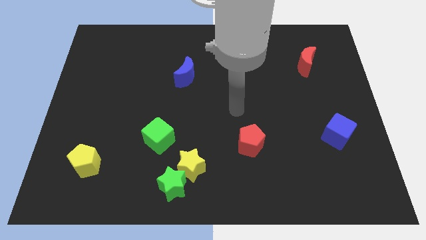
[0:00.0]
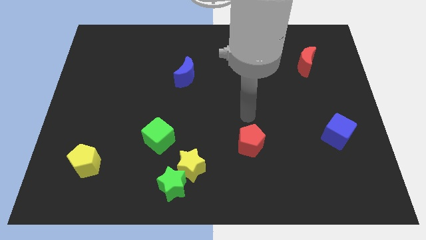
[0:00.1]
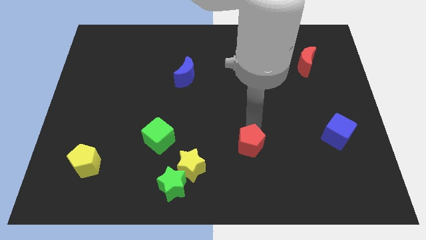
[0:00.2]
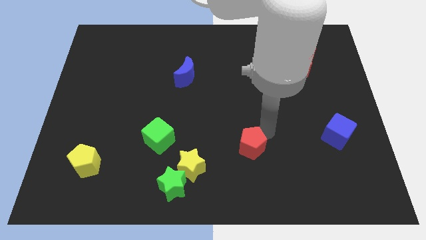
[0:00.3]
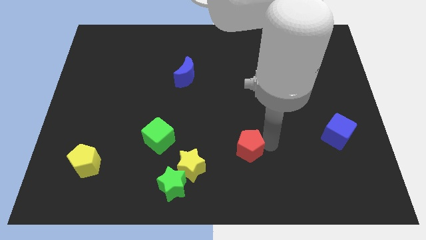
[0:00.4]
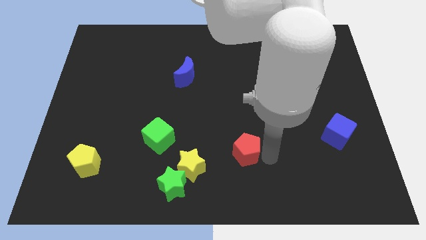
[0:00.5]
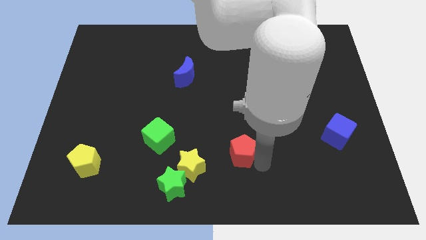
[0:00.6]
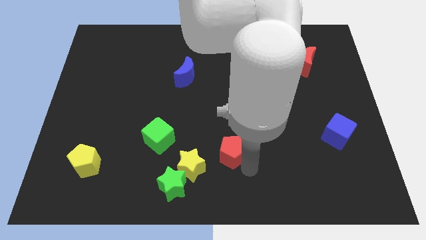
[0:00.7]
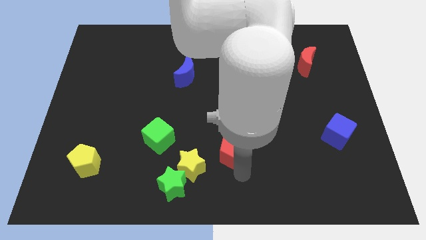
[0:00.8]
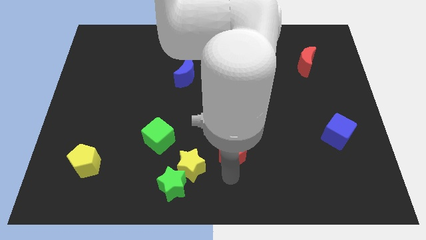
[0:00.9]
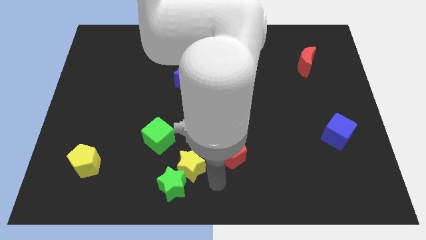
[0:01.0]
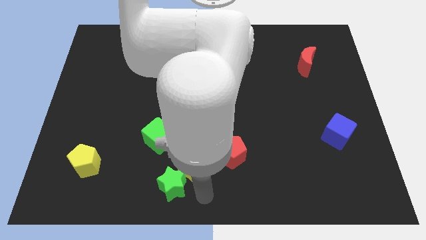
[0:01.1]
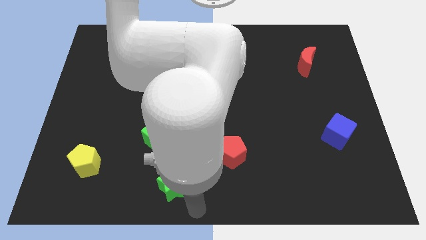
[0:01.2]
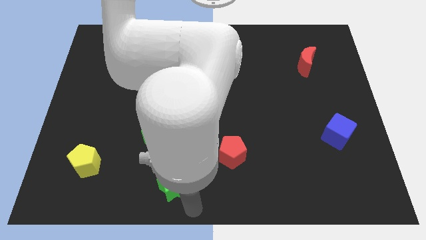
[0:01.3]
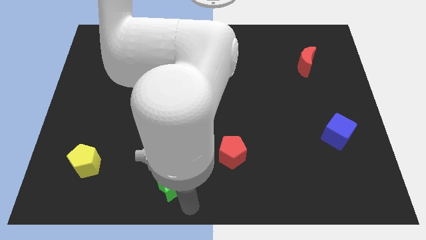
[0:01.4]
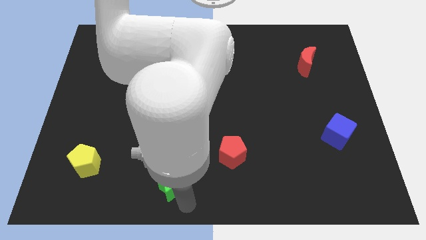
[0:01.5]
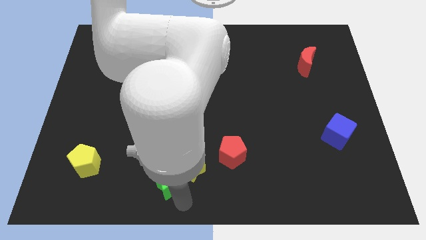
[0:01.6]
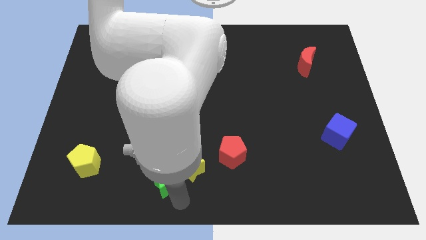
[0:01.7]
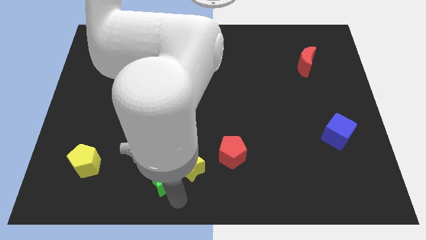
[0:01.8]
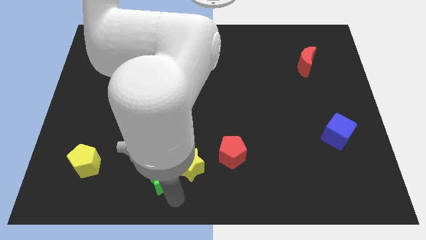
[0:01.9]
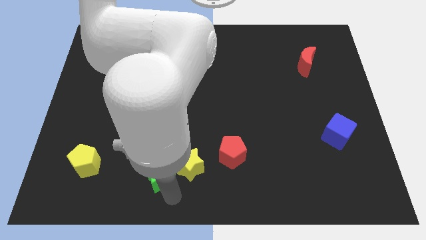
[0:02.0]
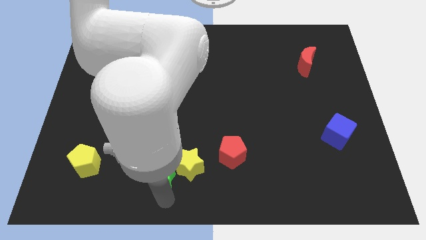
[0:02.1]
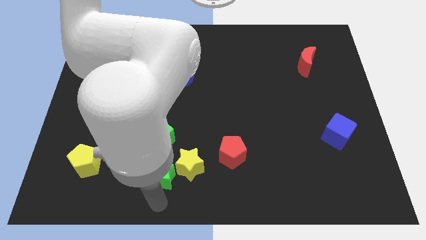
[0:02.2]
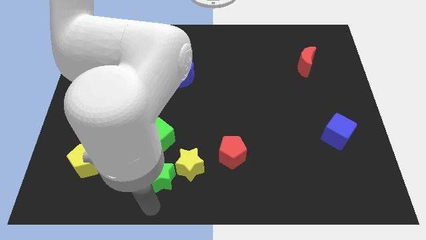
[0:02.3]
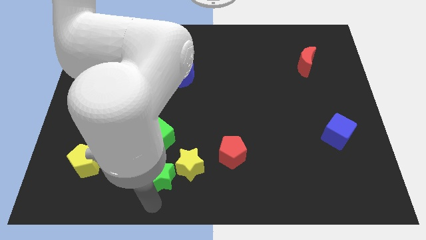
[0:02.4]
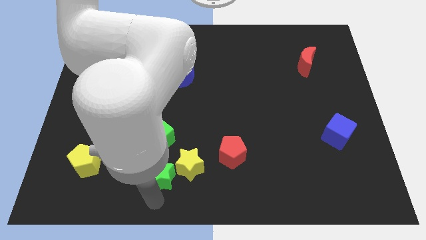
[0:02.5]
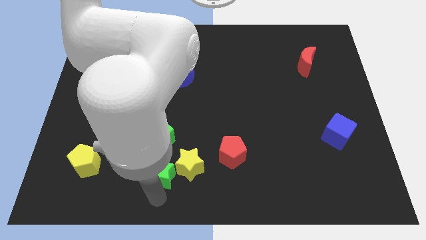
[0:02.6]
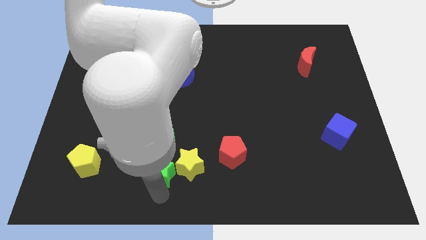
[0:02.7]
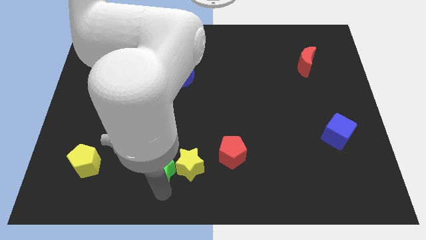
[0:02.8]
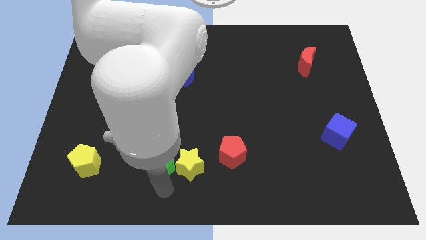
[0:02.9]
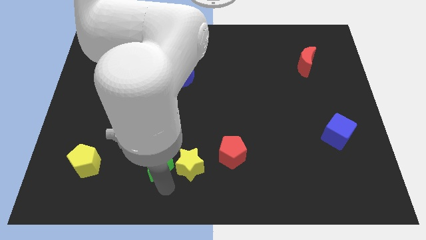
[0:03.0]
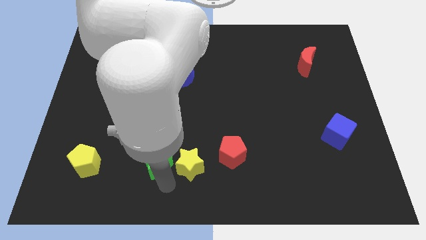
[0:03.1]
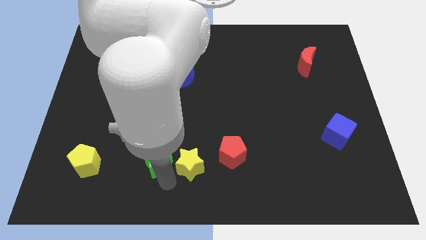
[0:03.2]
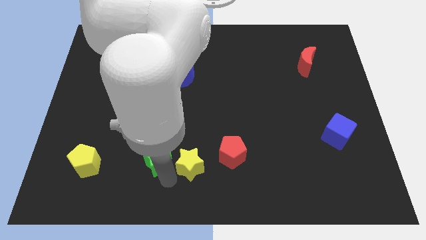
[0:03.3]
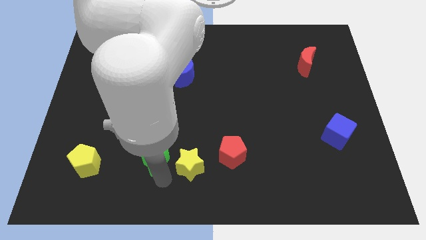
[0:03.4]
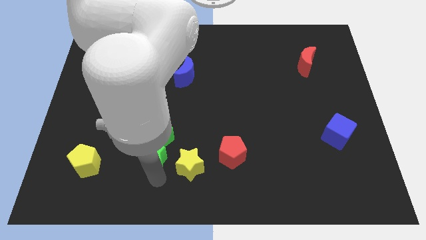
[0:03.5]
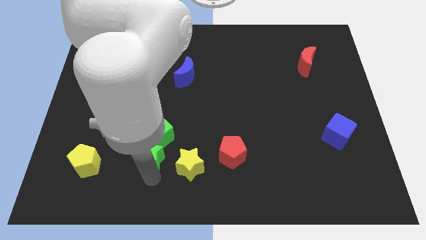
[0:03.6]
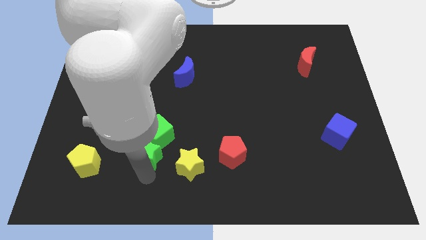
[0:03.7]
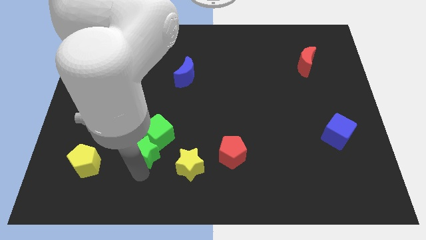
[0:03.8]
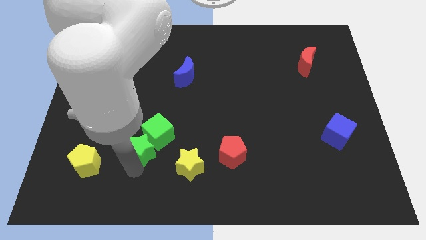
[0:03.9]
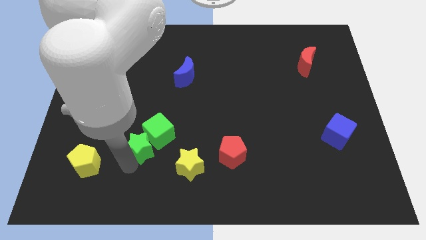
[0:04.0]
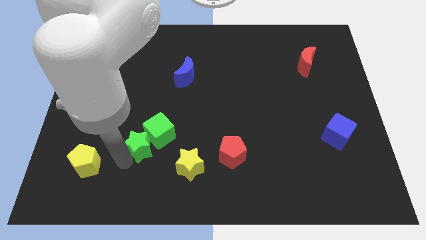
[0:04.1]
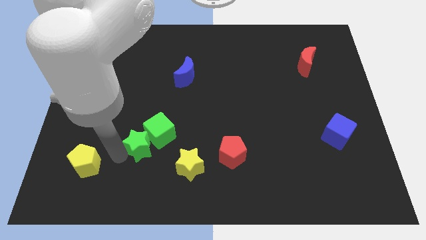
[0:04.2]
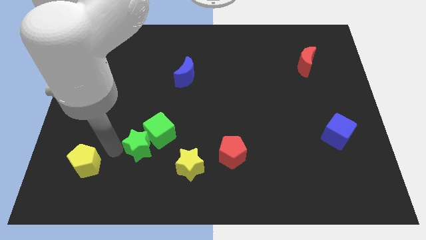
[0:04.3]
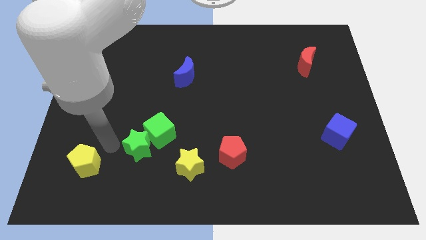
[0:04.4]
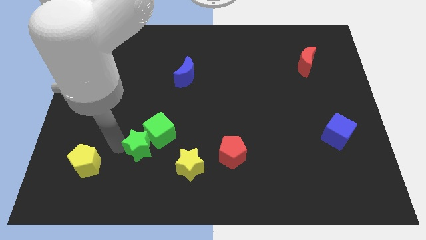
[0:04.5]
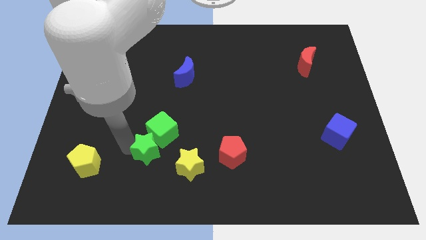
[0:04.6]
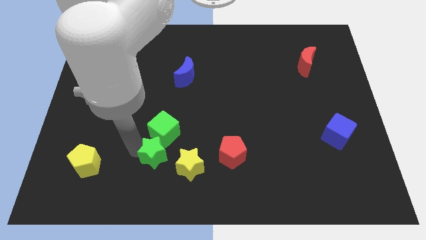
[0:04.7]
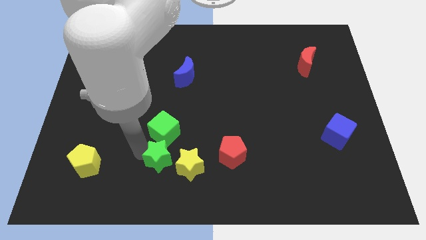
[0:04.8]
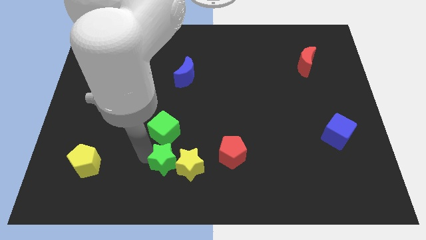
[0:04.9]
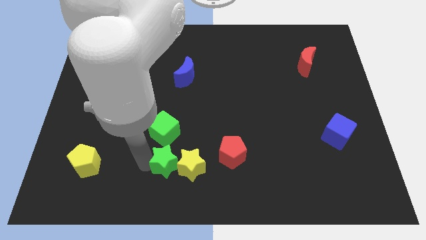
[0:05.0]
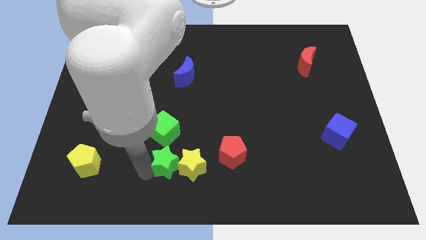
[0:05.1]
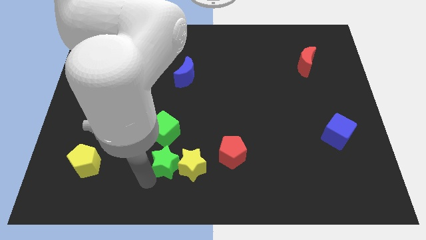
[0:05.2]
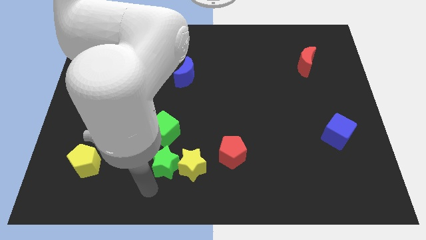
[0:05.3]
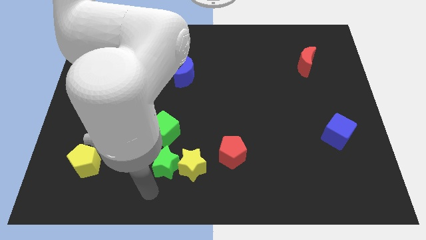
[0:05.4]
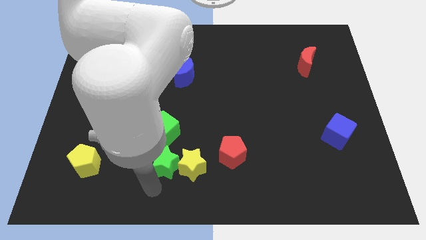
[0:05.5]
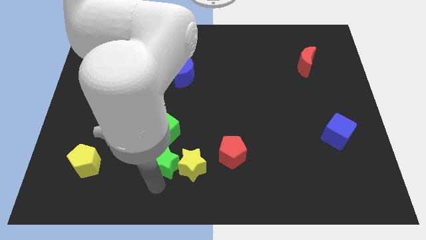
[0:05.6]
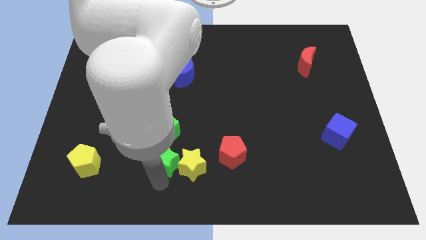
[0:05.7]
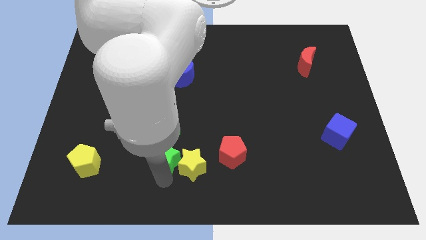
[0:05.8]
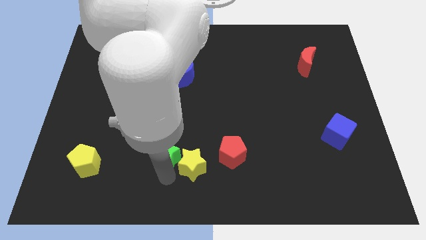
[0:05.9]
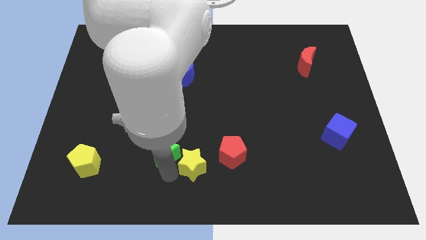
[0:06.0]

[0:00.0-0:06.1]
slide the green star somewhat upwards

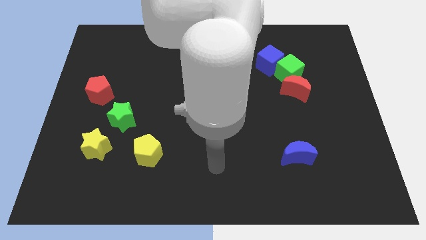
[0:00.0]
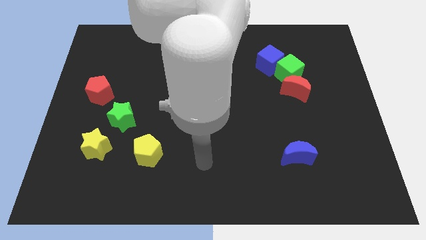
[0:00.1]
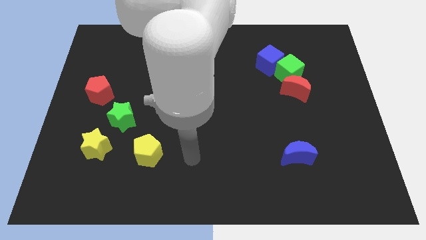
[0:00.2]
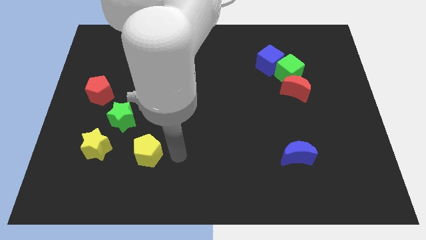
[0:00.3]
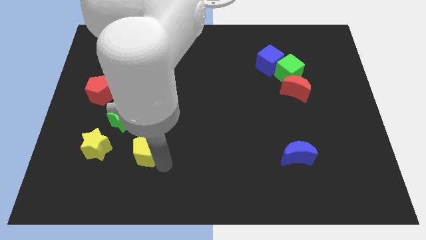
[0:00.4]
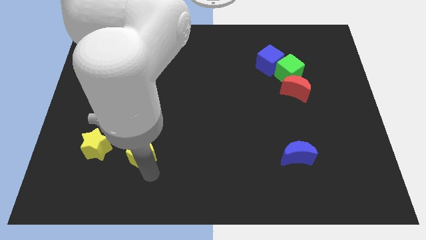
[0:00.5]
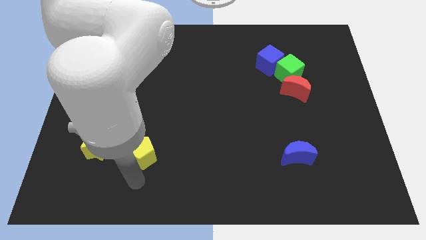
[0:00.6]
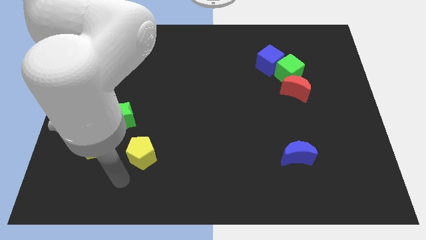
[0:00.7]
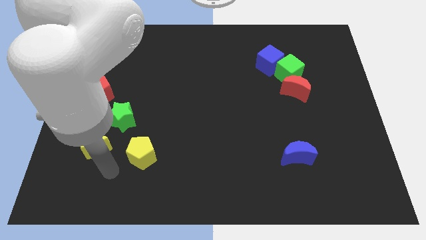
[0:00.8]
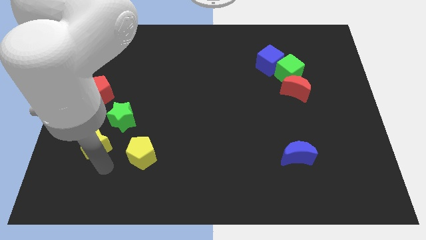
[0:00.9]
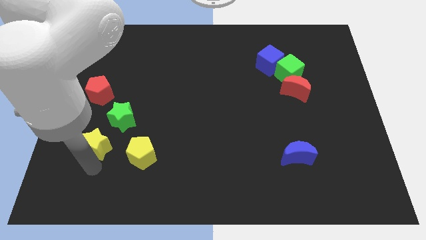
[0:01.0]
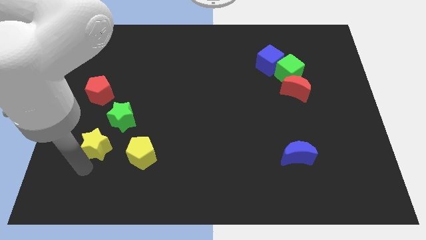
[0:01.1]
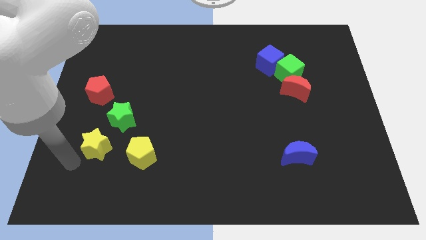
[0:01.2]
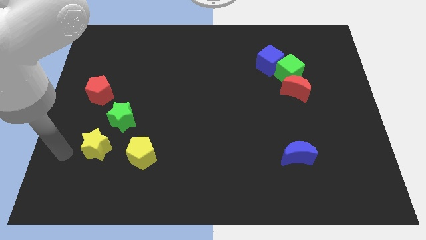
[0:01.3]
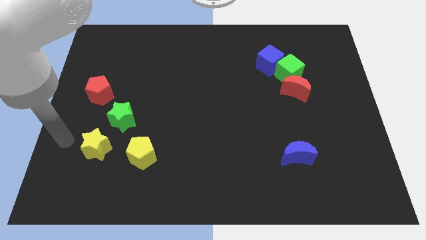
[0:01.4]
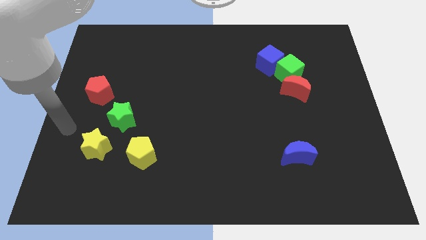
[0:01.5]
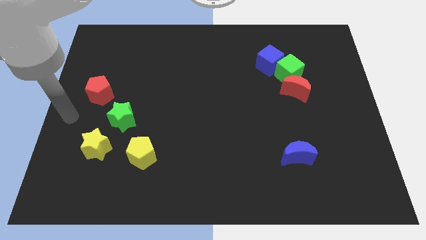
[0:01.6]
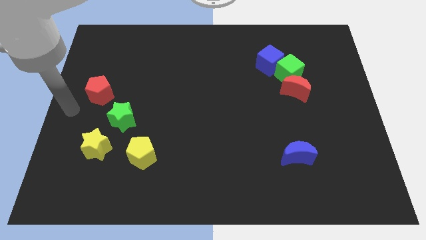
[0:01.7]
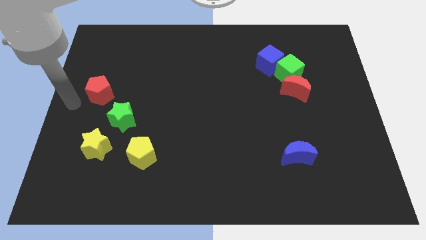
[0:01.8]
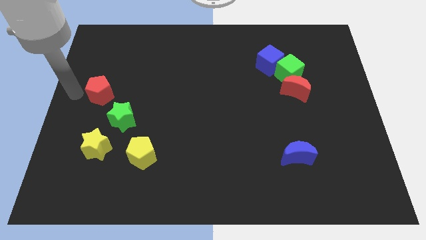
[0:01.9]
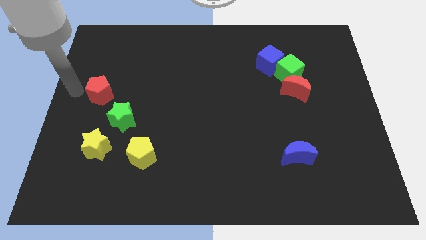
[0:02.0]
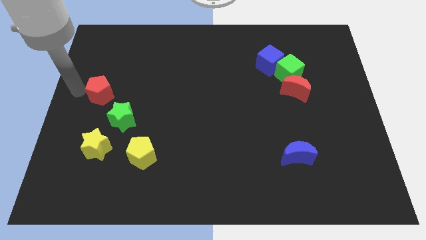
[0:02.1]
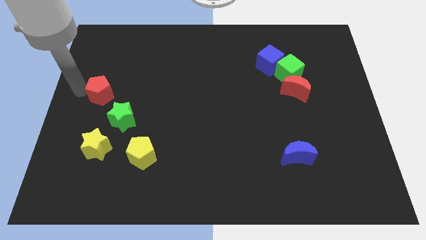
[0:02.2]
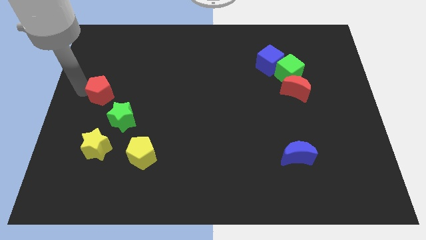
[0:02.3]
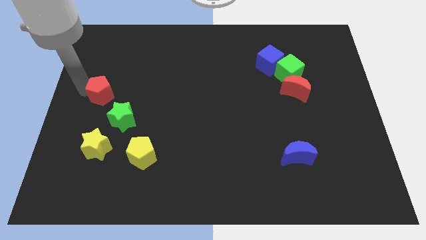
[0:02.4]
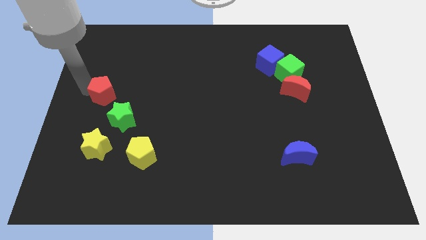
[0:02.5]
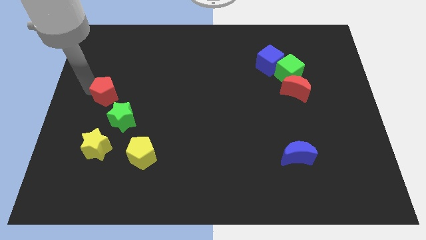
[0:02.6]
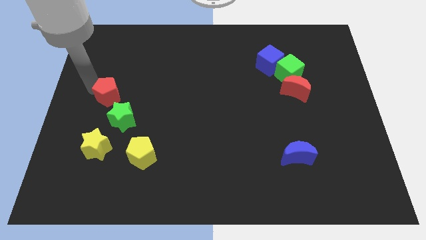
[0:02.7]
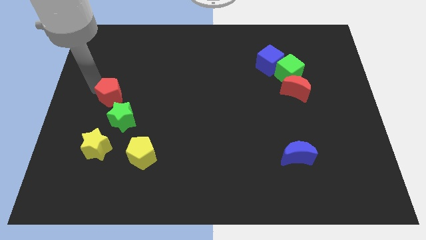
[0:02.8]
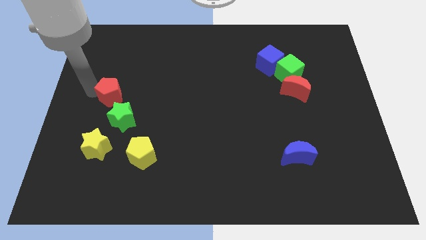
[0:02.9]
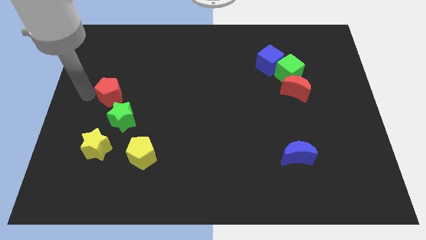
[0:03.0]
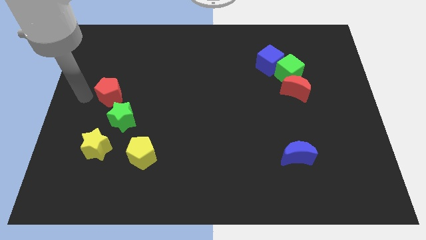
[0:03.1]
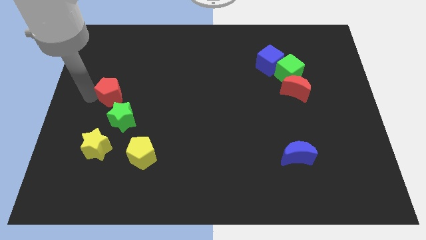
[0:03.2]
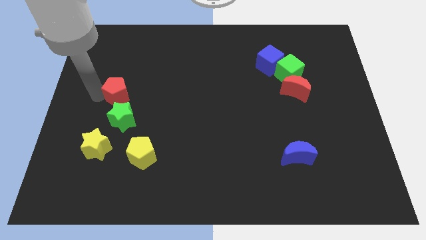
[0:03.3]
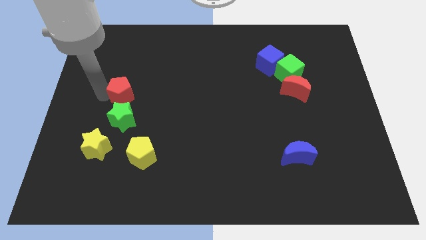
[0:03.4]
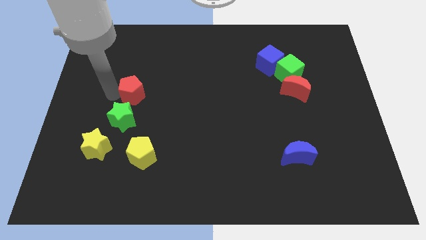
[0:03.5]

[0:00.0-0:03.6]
move the red pentagon right a little bit
